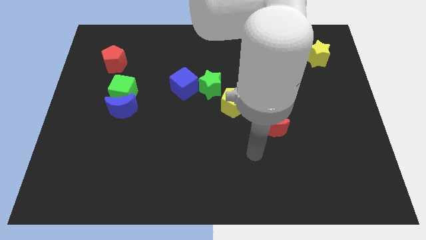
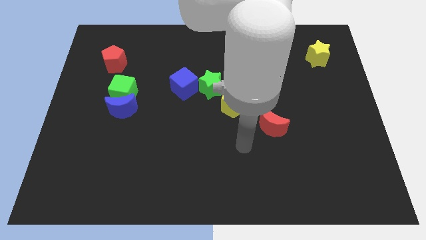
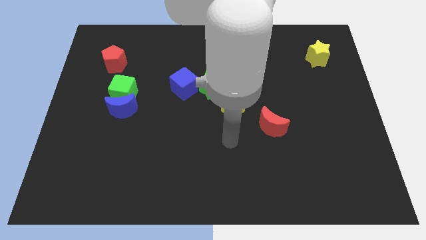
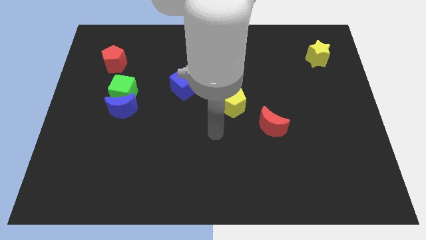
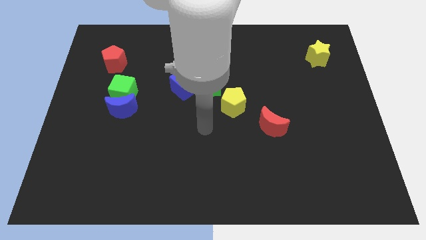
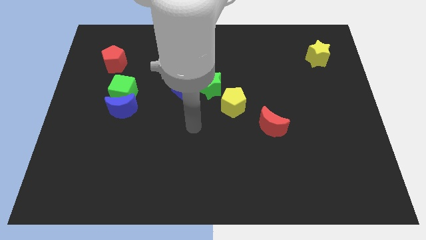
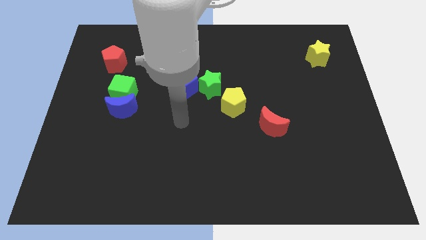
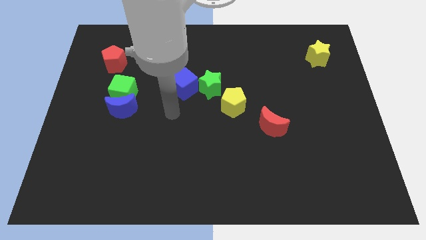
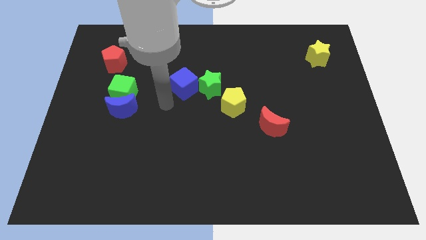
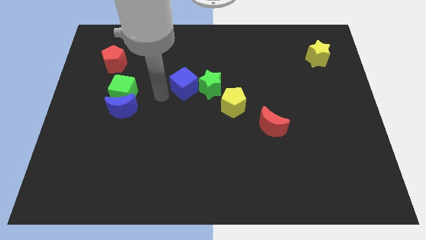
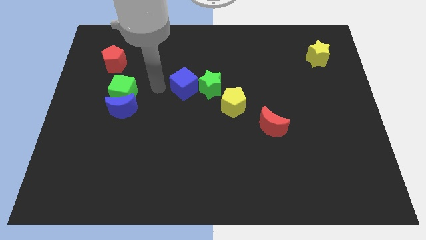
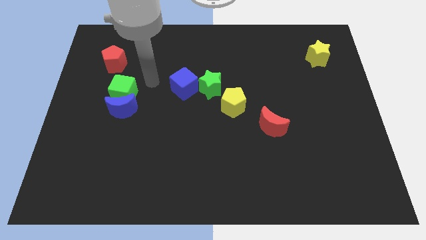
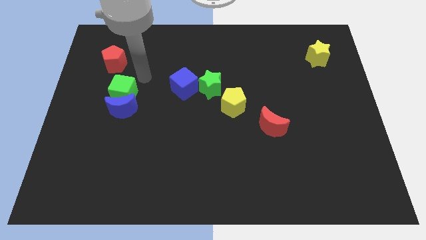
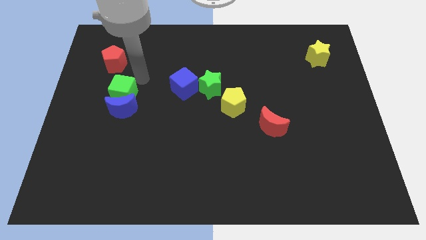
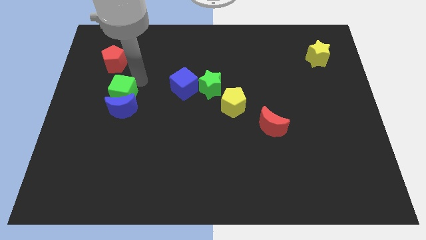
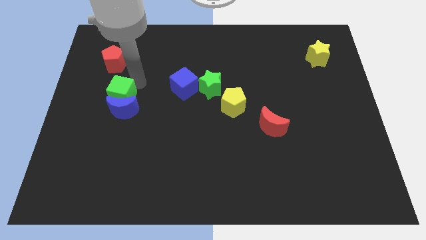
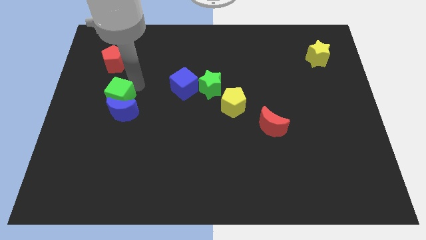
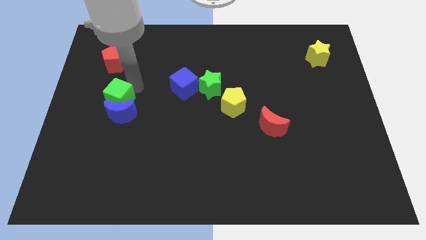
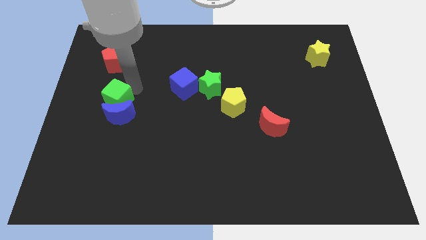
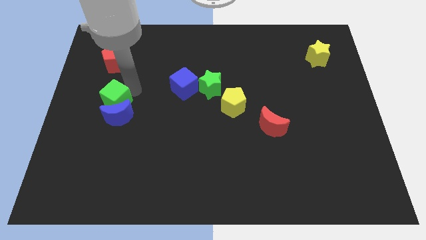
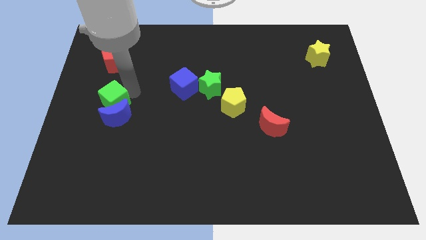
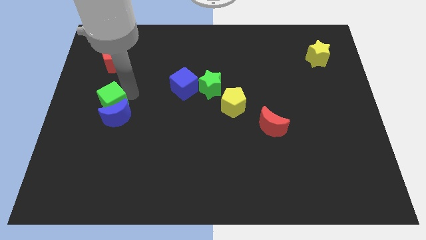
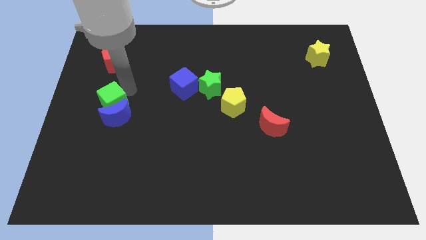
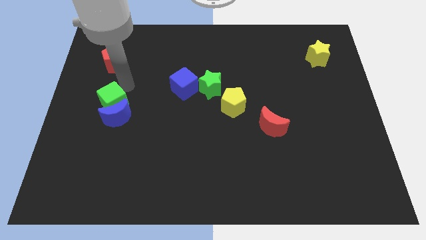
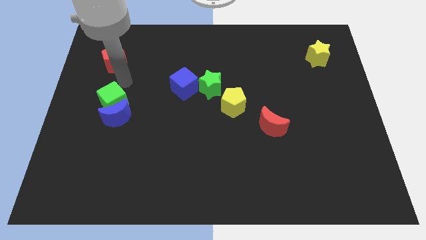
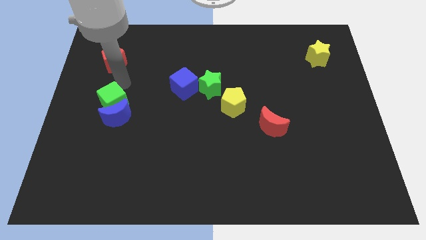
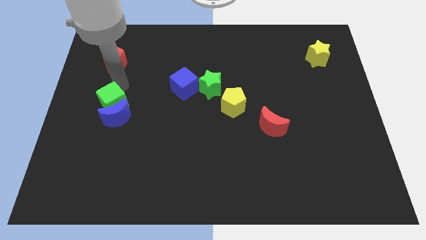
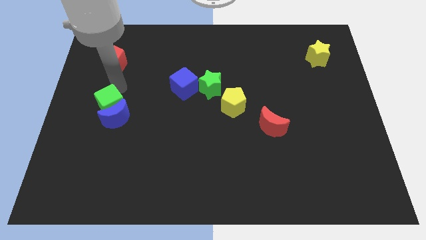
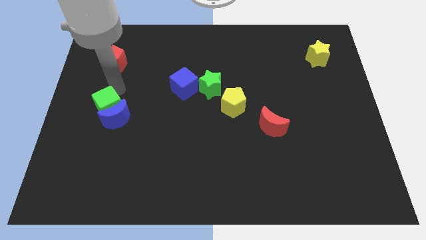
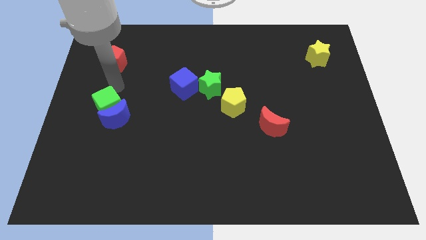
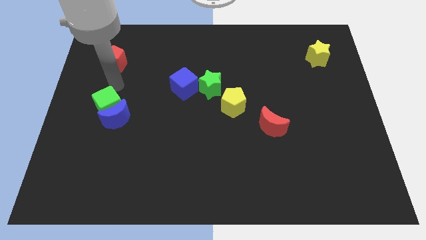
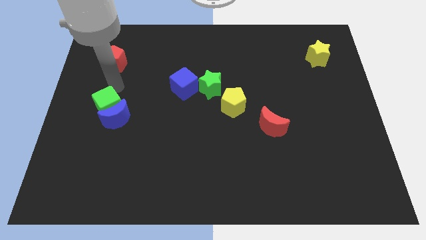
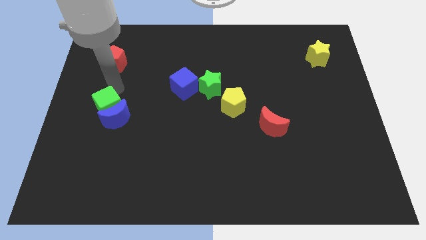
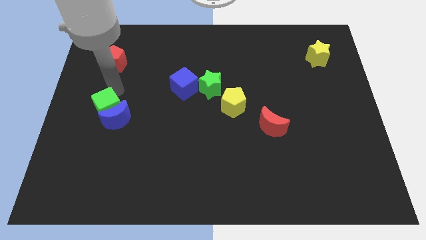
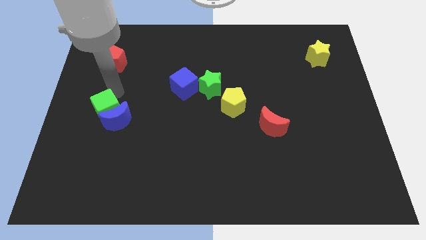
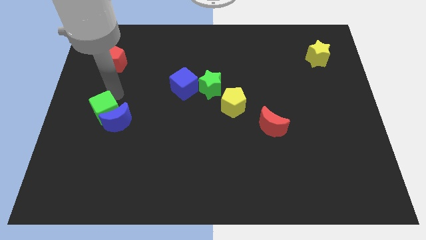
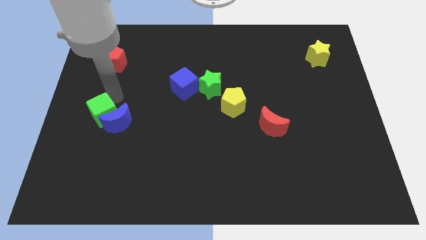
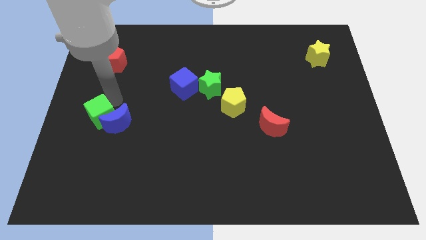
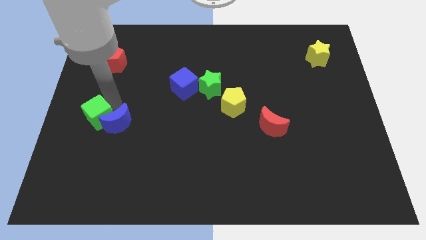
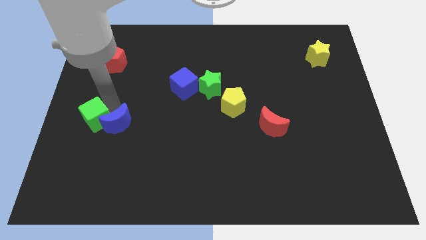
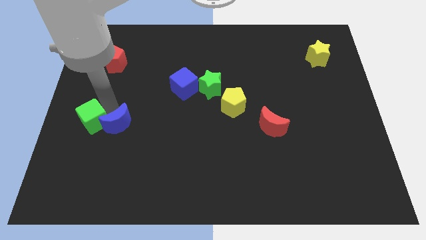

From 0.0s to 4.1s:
slide the green cube downwards slightly

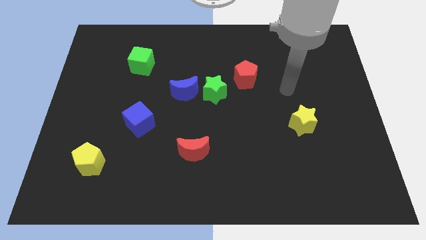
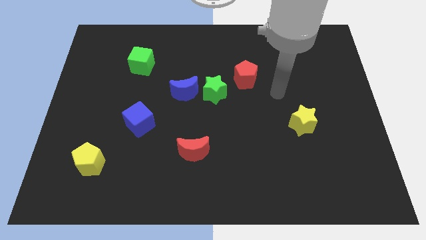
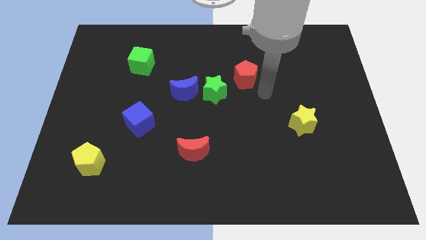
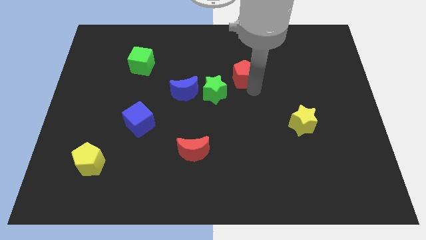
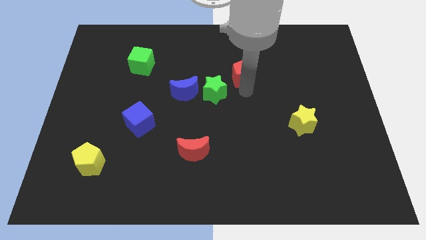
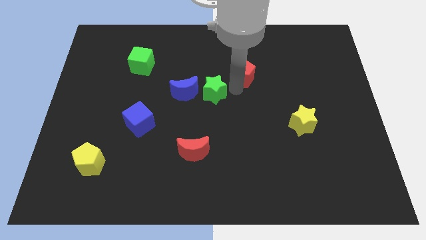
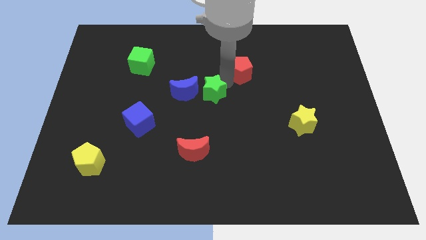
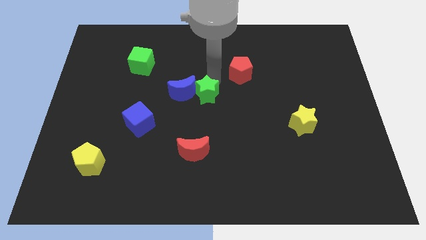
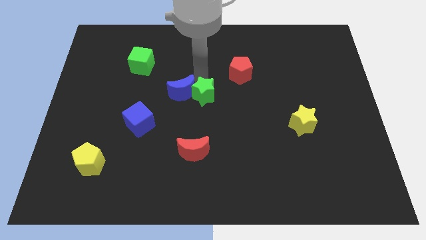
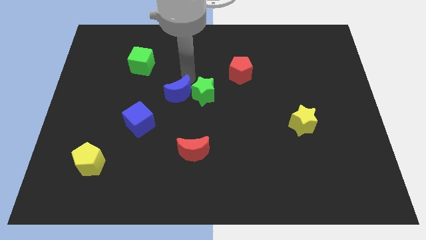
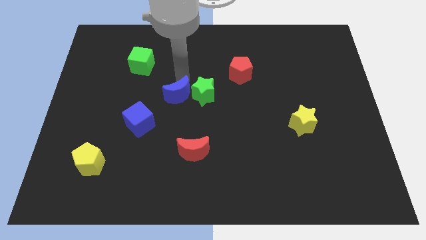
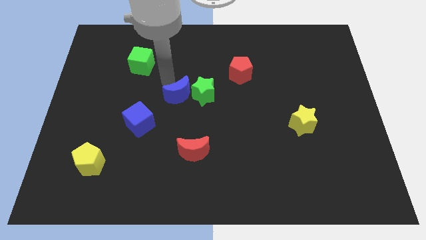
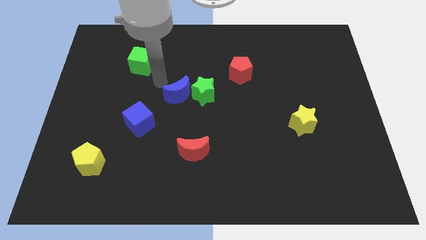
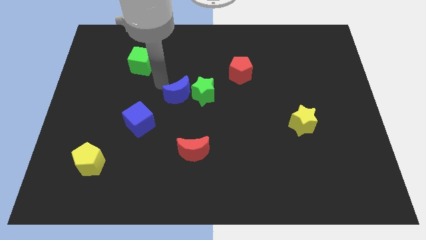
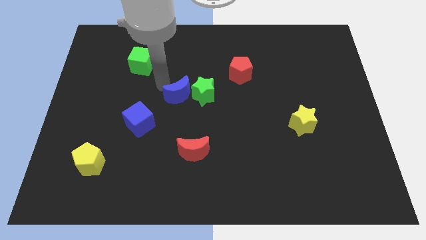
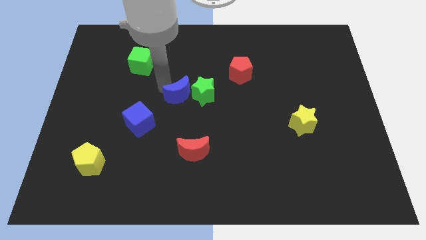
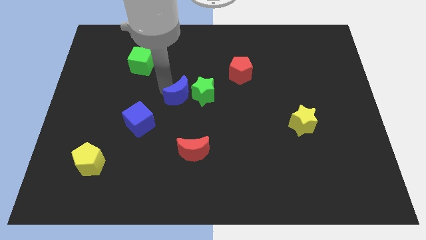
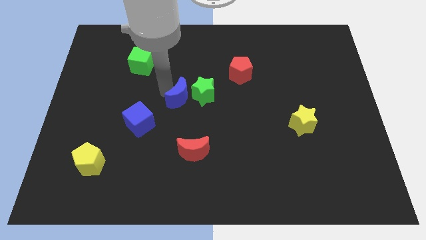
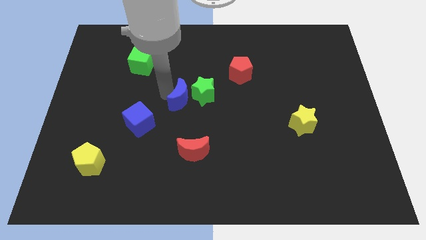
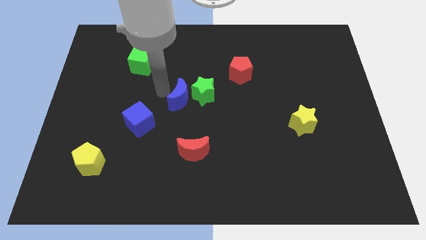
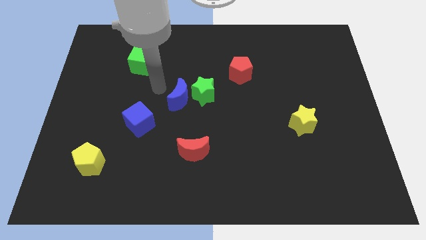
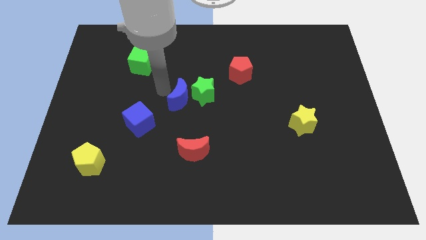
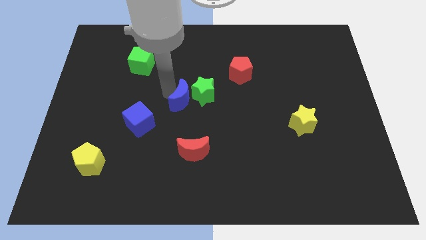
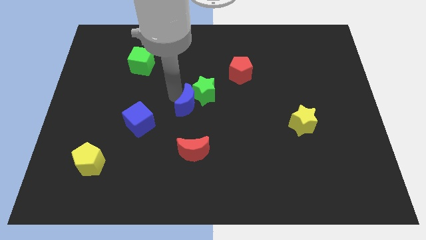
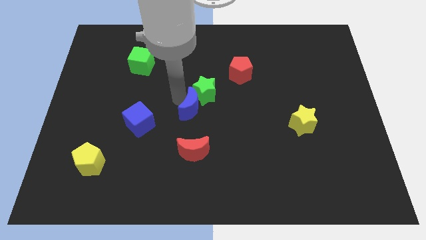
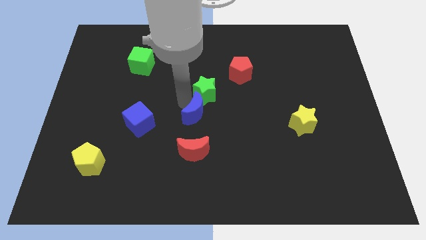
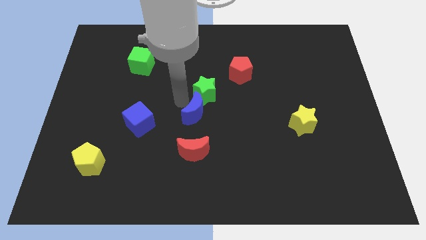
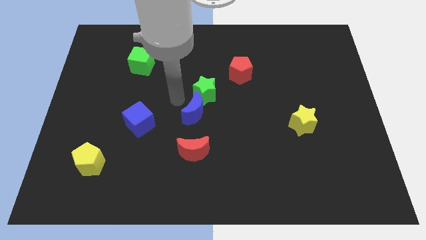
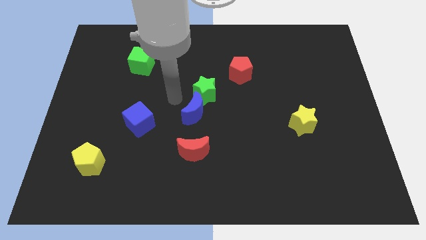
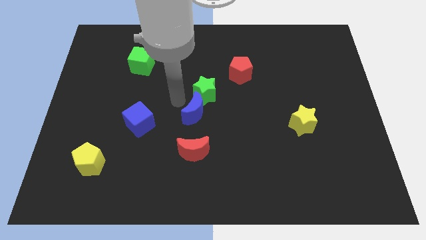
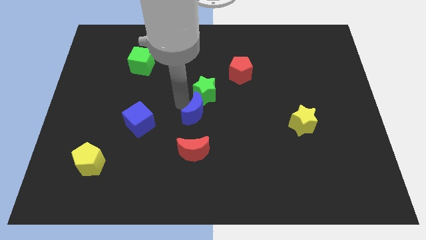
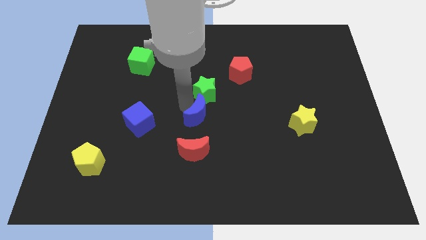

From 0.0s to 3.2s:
slightly slide the blue moon diagonally down and to the right

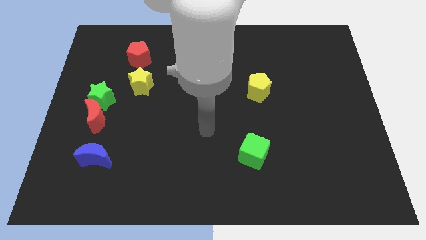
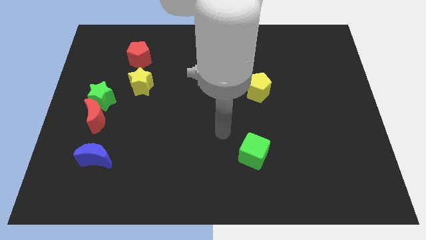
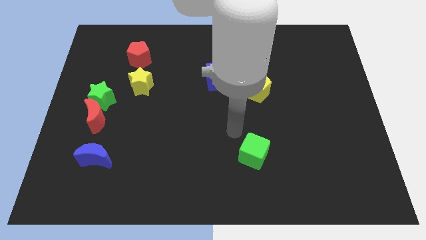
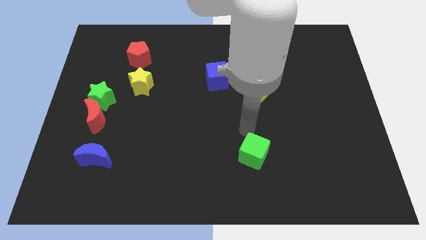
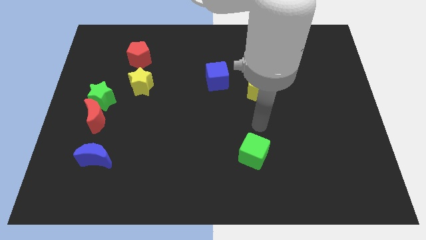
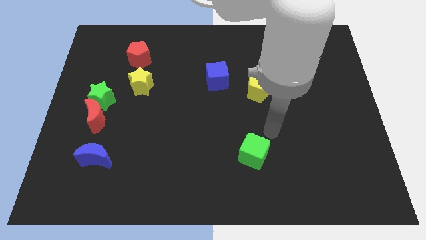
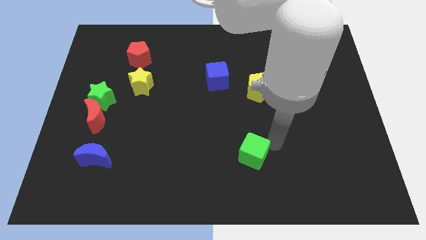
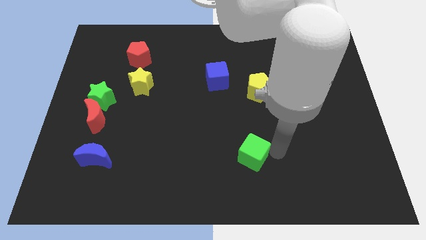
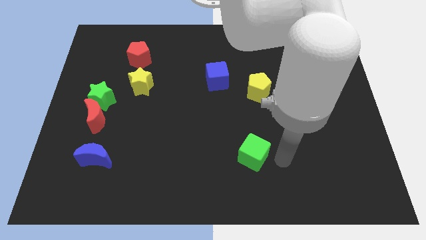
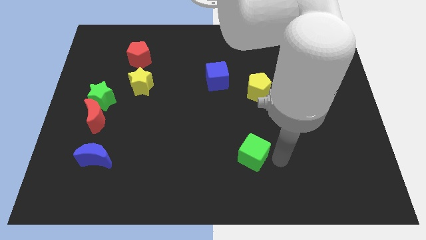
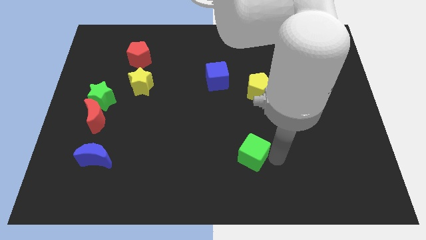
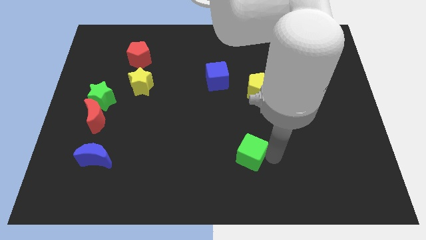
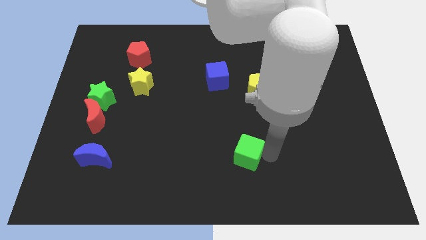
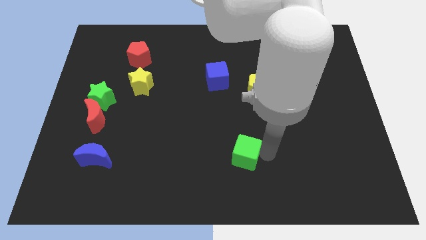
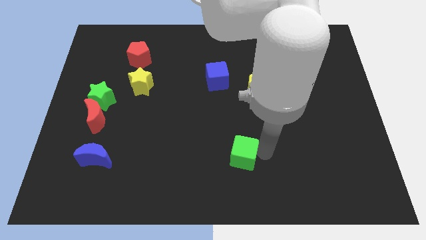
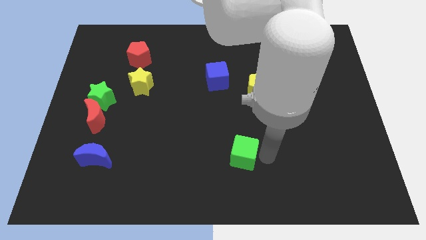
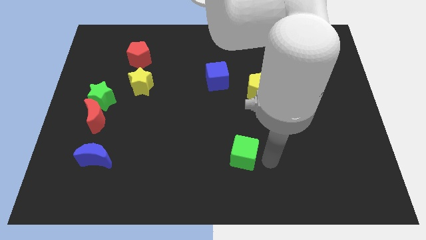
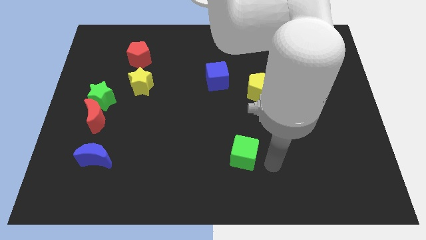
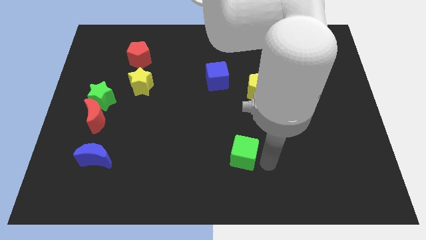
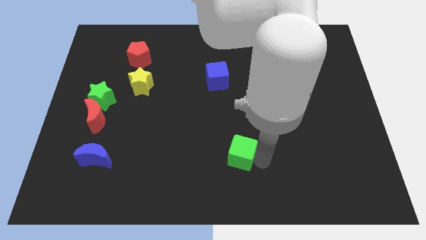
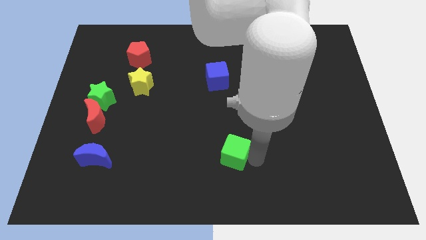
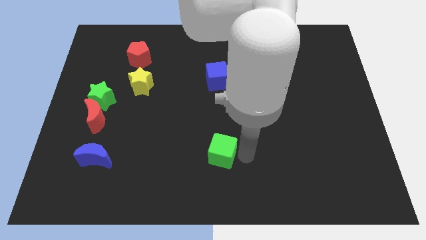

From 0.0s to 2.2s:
move the green cube to the left slightly
